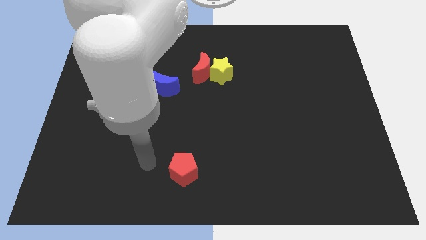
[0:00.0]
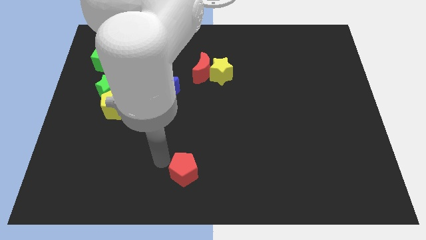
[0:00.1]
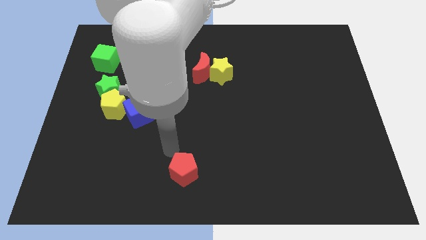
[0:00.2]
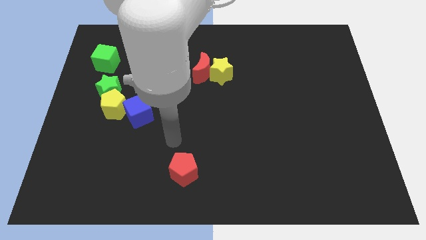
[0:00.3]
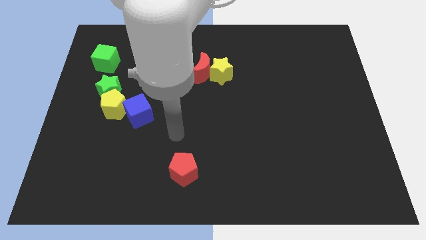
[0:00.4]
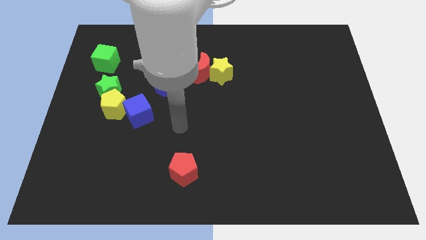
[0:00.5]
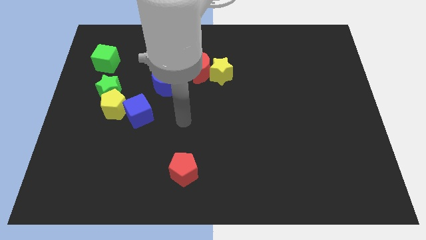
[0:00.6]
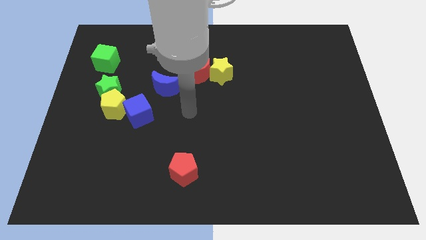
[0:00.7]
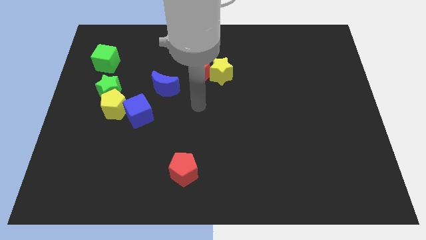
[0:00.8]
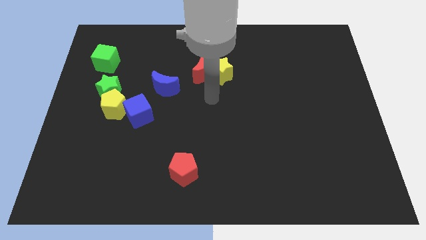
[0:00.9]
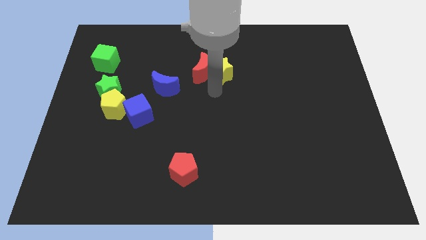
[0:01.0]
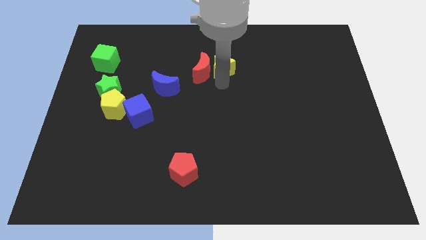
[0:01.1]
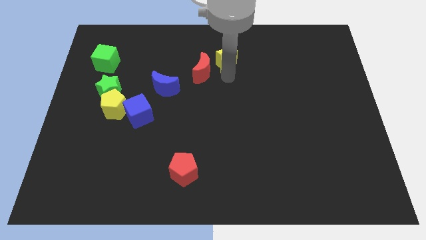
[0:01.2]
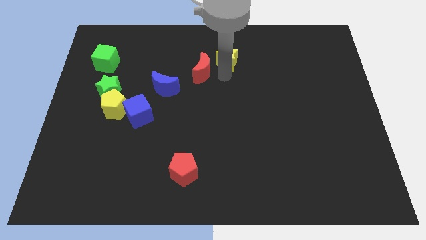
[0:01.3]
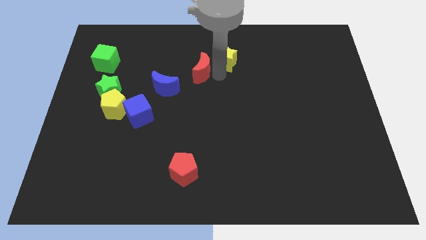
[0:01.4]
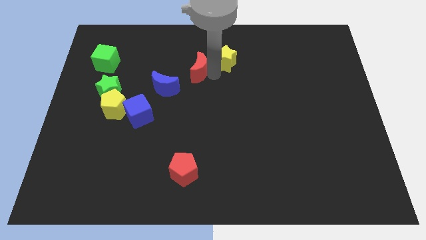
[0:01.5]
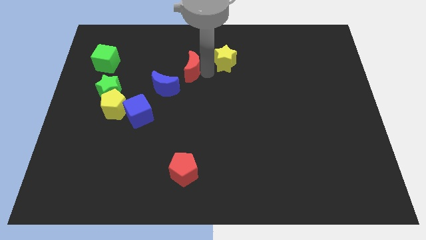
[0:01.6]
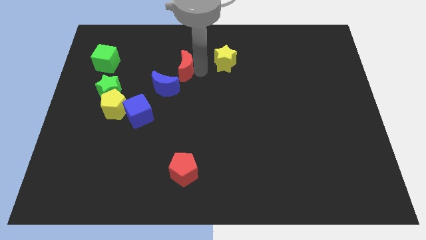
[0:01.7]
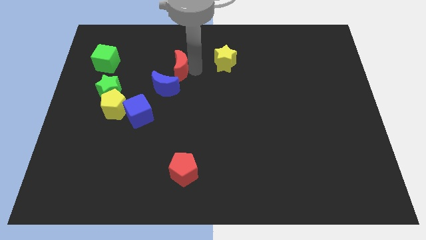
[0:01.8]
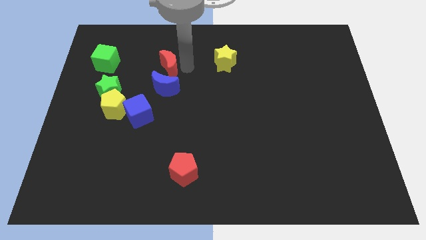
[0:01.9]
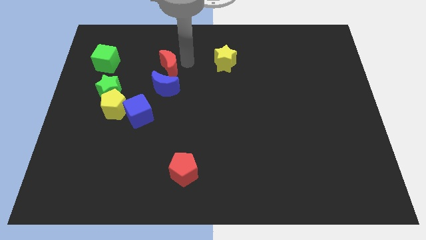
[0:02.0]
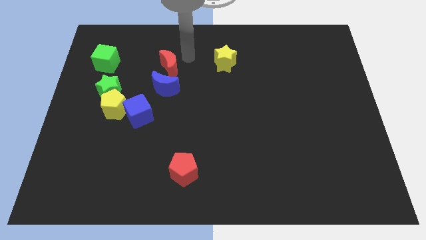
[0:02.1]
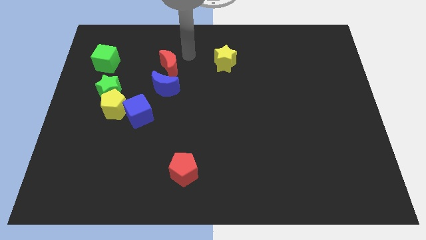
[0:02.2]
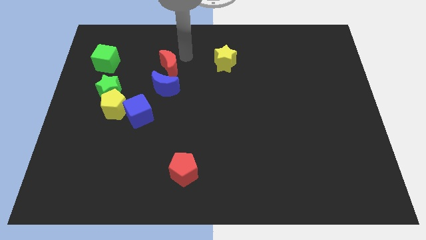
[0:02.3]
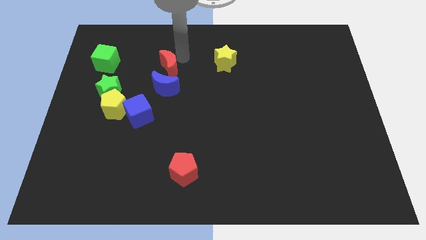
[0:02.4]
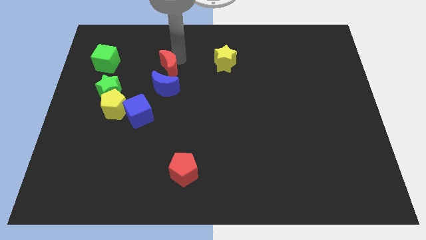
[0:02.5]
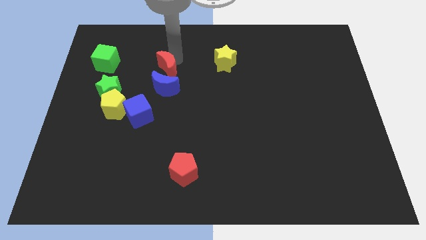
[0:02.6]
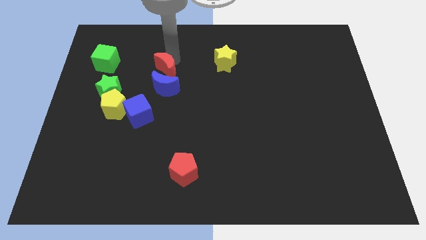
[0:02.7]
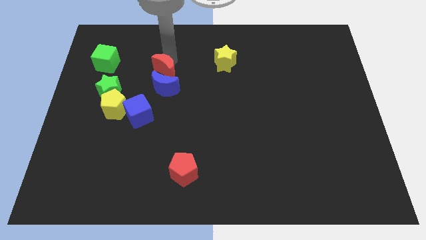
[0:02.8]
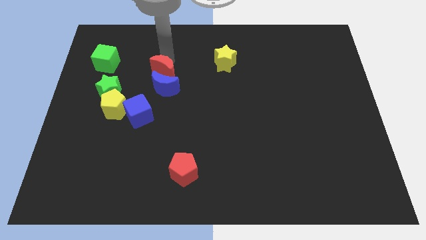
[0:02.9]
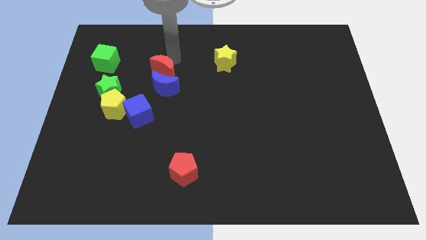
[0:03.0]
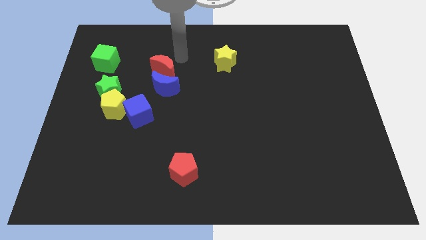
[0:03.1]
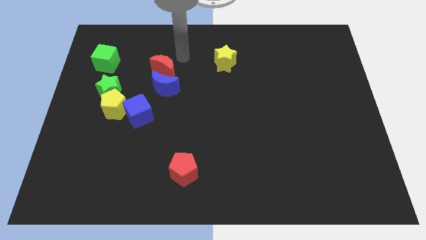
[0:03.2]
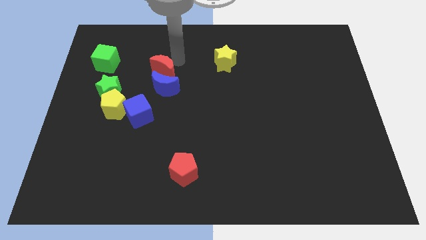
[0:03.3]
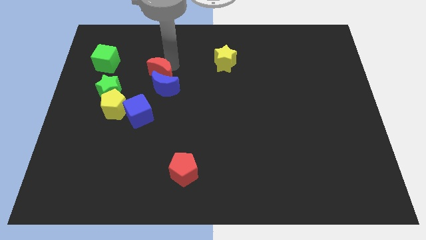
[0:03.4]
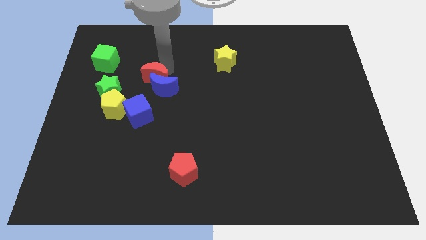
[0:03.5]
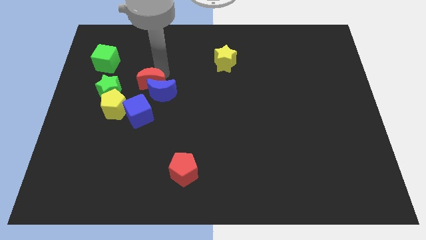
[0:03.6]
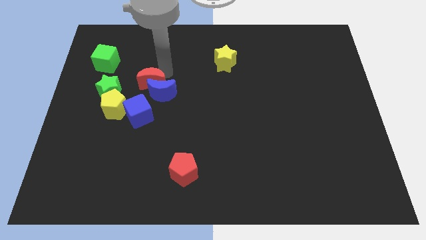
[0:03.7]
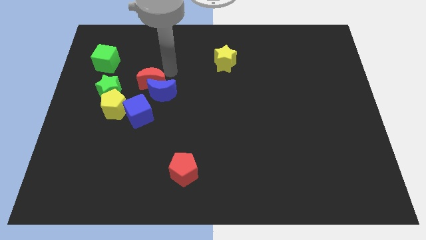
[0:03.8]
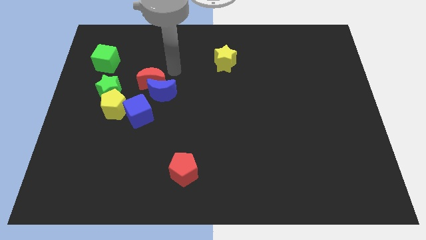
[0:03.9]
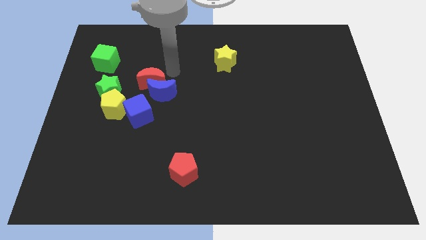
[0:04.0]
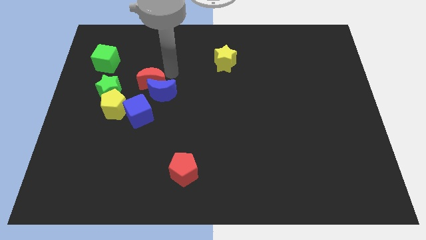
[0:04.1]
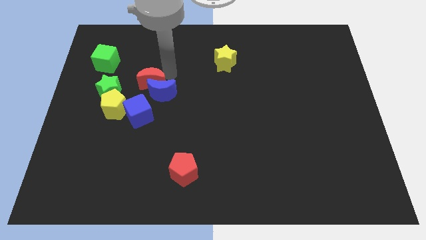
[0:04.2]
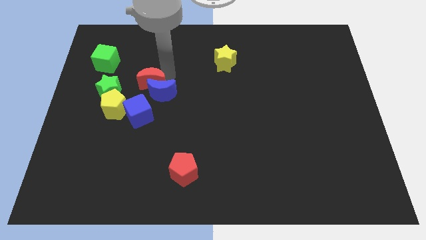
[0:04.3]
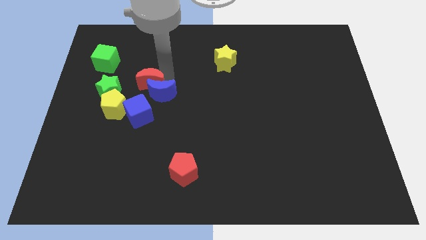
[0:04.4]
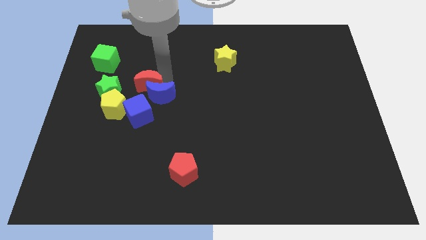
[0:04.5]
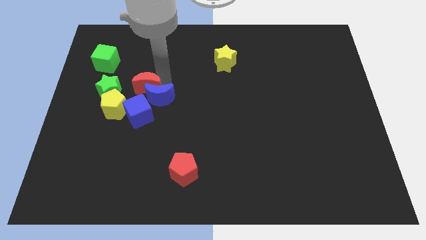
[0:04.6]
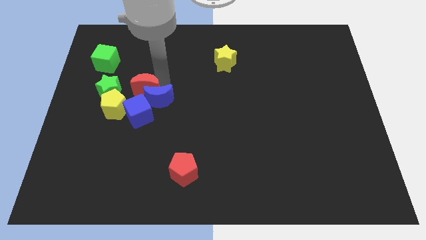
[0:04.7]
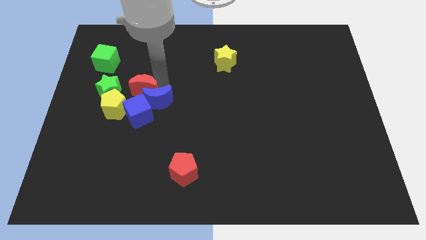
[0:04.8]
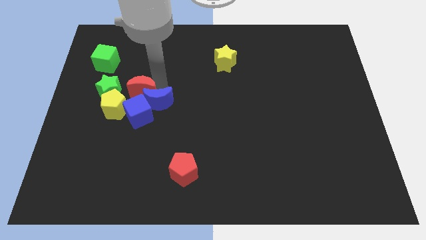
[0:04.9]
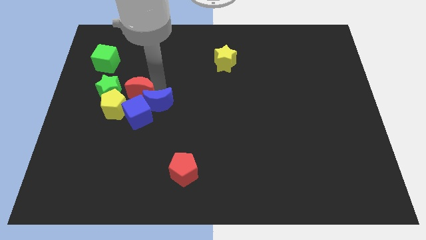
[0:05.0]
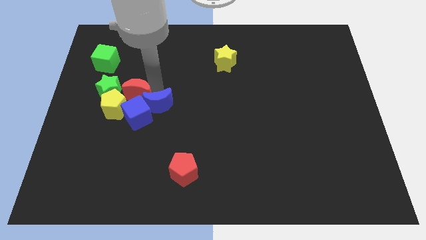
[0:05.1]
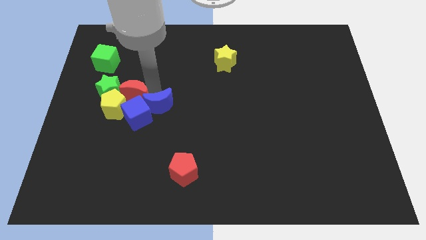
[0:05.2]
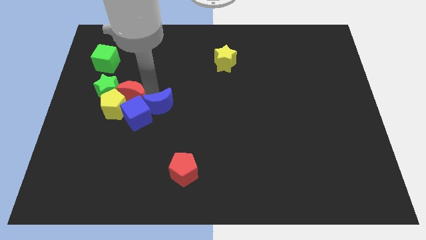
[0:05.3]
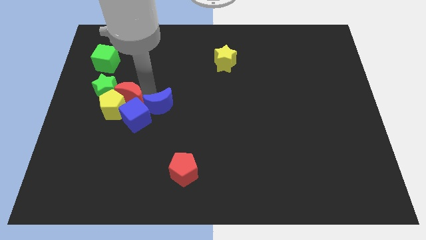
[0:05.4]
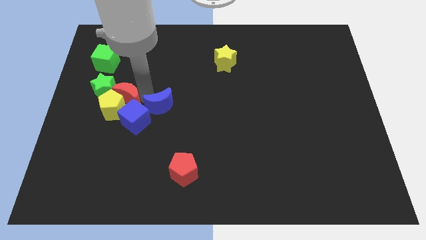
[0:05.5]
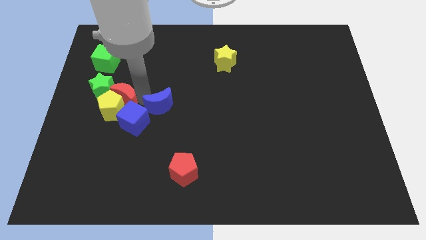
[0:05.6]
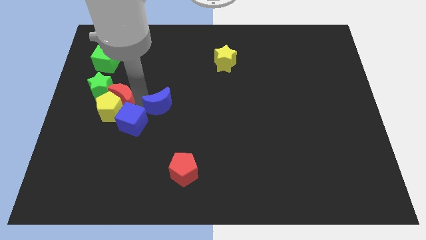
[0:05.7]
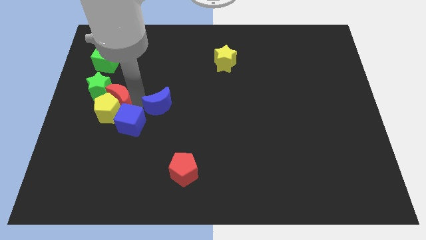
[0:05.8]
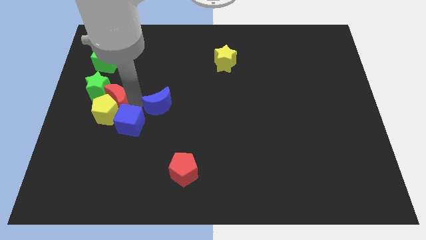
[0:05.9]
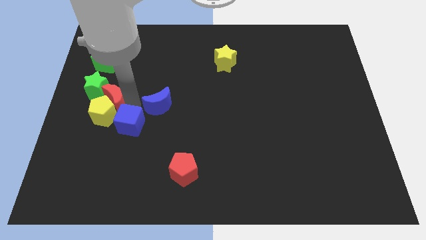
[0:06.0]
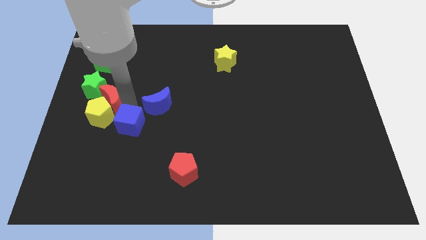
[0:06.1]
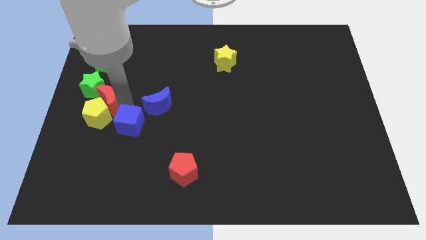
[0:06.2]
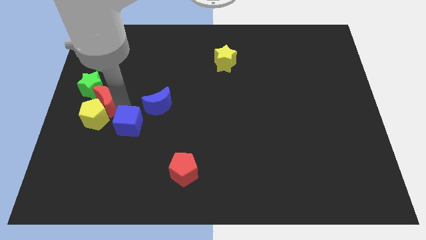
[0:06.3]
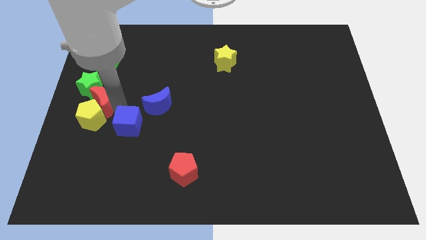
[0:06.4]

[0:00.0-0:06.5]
move the red moon to the green star
